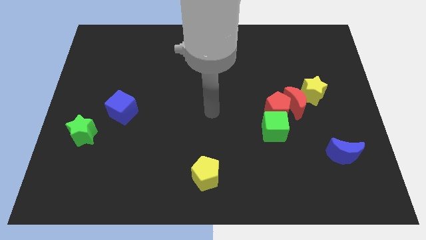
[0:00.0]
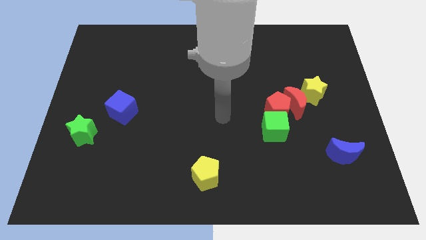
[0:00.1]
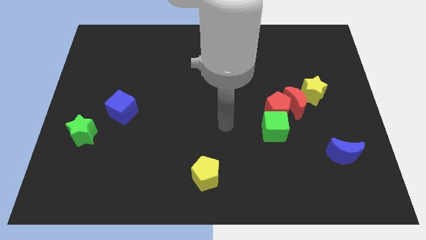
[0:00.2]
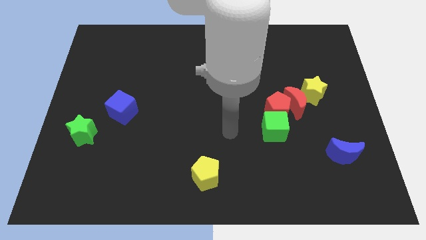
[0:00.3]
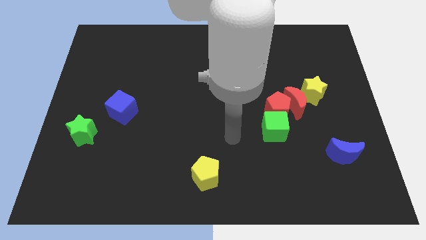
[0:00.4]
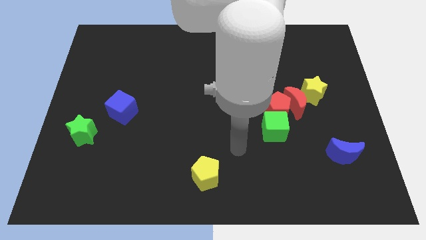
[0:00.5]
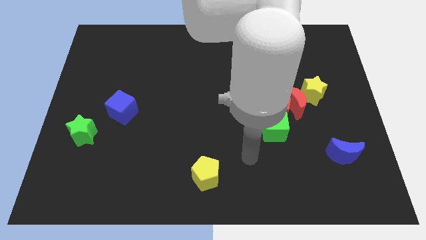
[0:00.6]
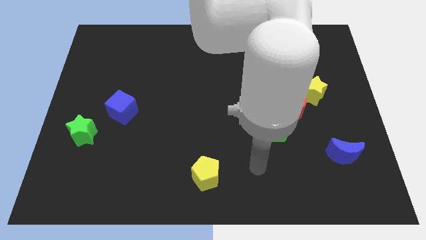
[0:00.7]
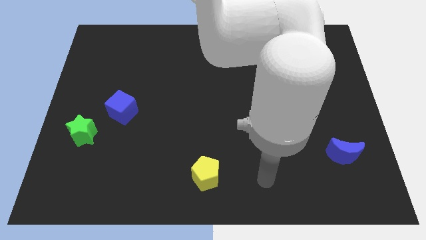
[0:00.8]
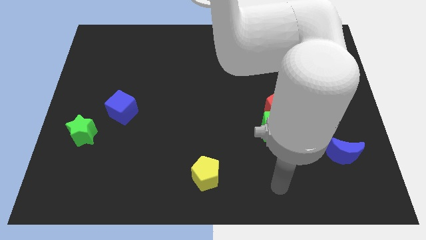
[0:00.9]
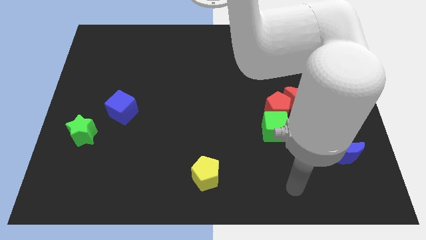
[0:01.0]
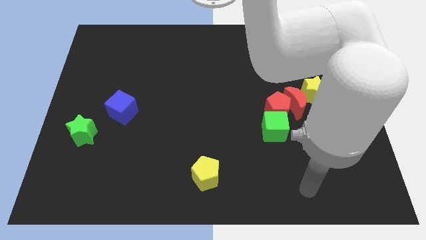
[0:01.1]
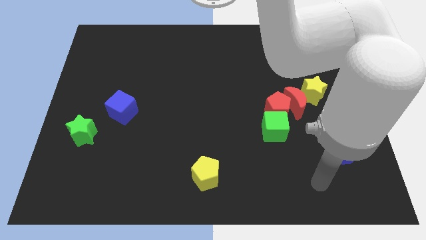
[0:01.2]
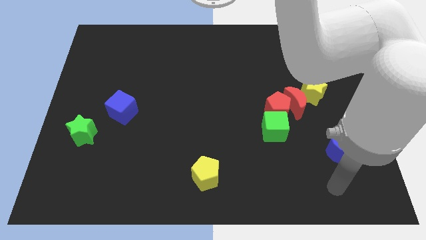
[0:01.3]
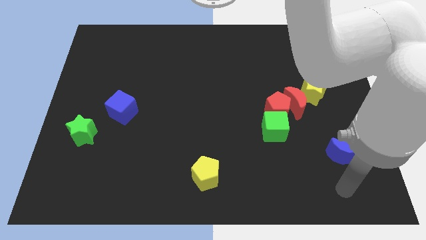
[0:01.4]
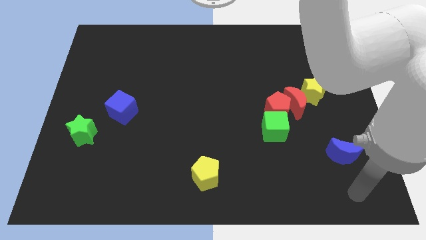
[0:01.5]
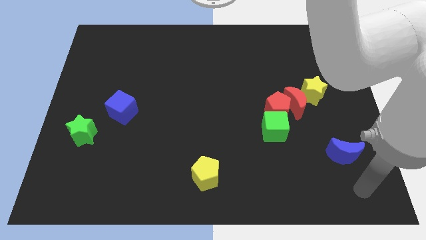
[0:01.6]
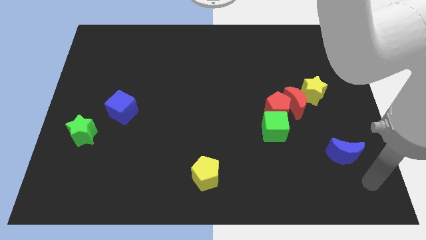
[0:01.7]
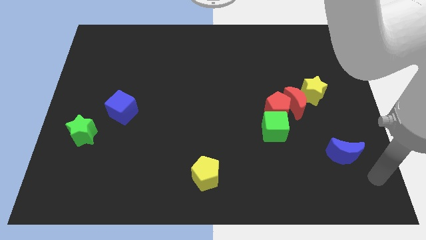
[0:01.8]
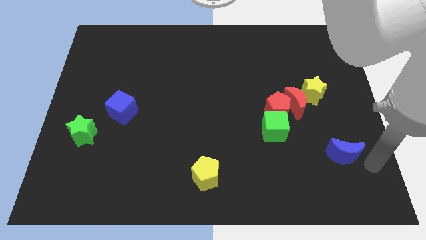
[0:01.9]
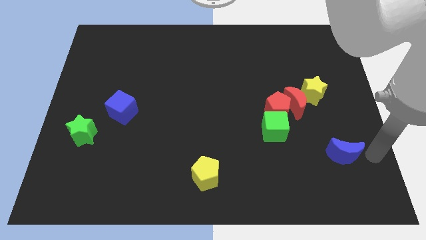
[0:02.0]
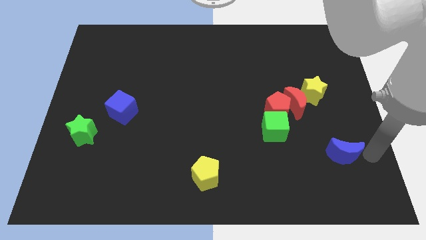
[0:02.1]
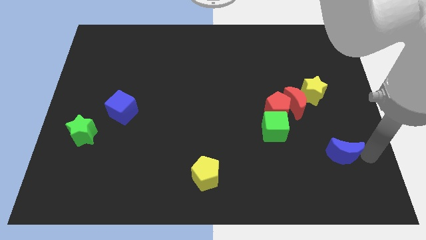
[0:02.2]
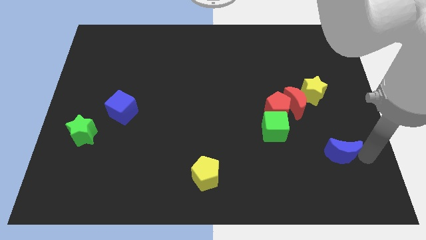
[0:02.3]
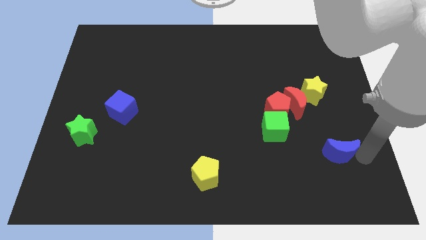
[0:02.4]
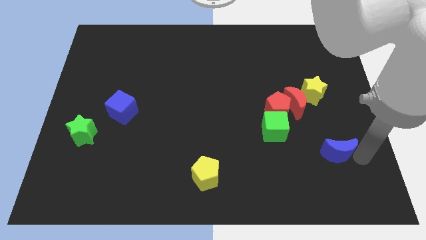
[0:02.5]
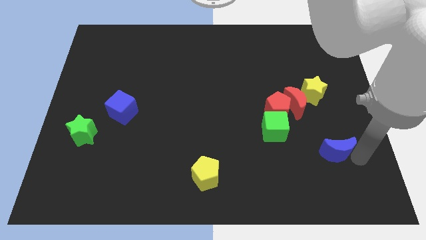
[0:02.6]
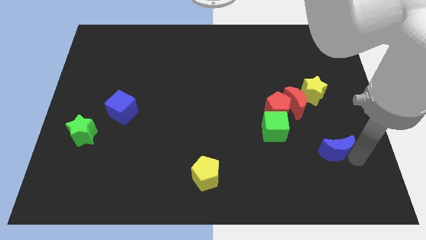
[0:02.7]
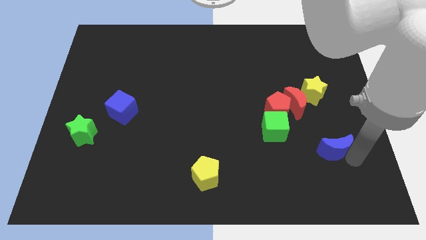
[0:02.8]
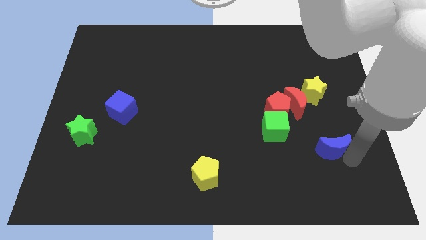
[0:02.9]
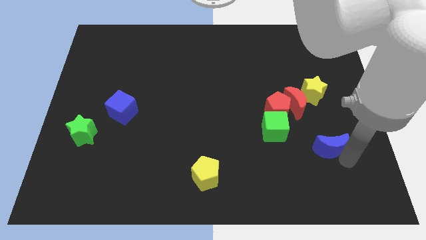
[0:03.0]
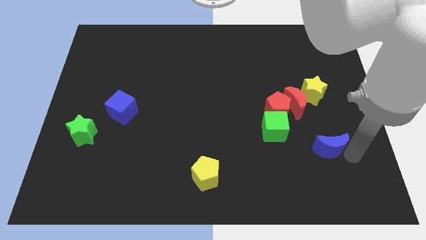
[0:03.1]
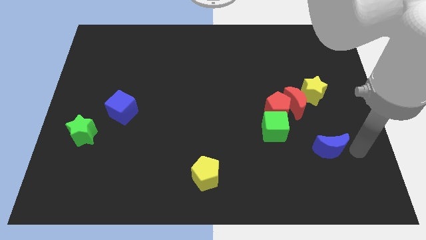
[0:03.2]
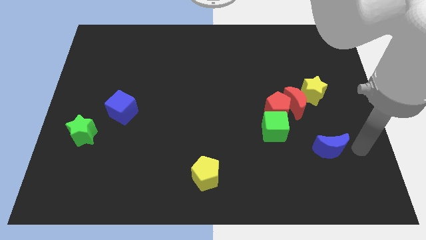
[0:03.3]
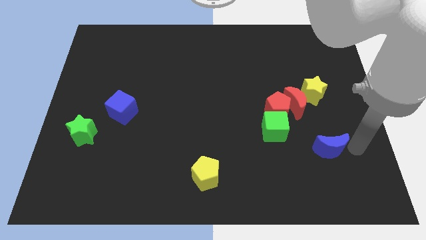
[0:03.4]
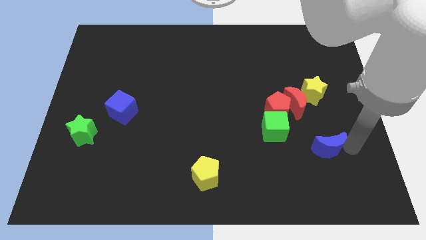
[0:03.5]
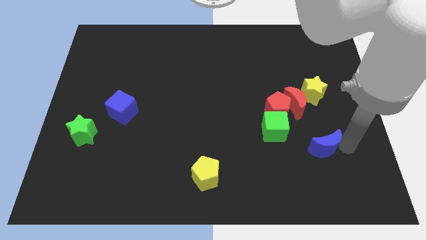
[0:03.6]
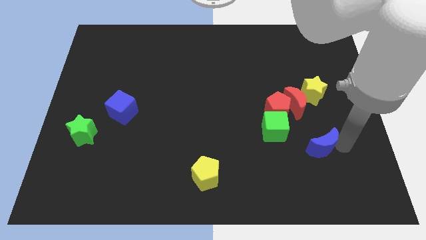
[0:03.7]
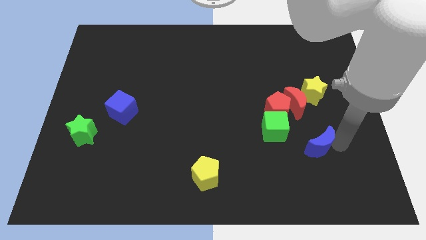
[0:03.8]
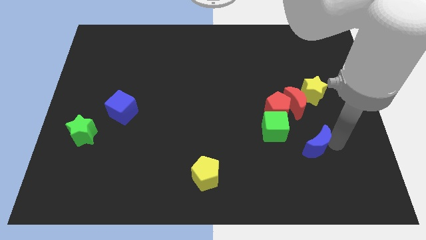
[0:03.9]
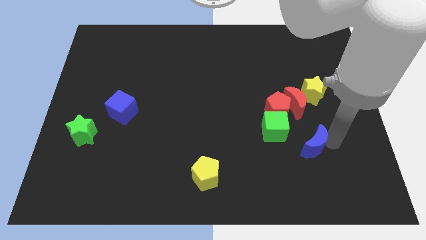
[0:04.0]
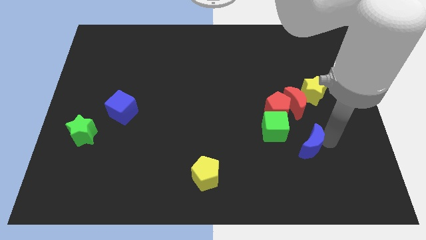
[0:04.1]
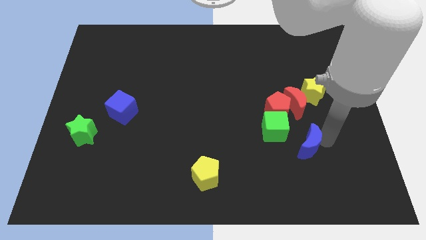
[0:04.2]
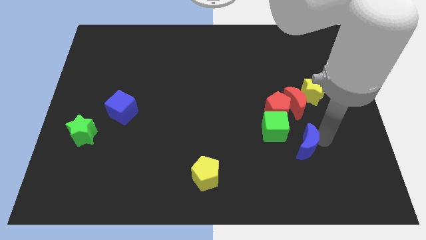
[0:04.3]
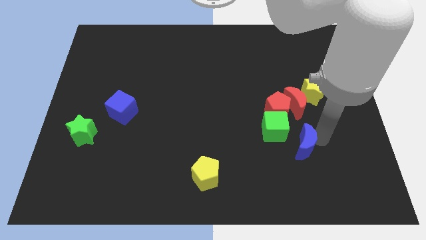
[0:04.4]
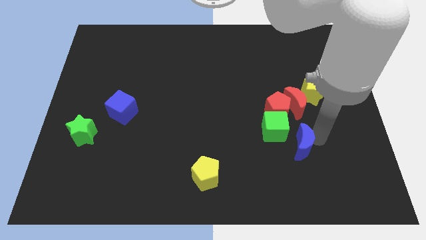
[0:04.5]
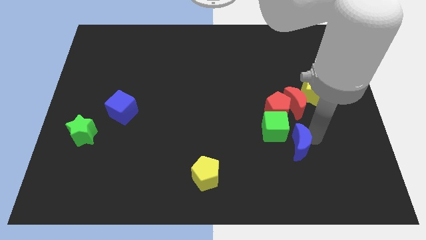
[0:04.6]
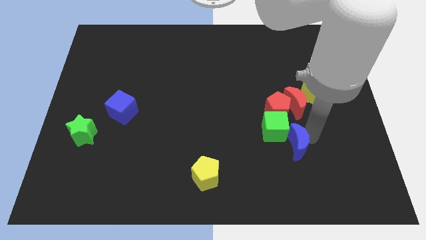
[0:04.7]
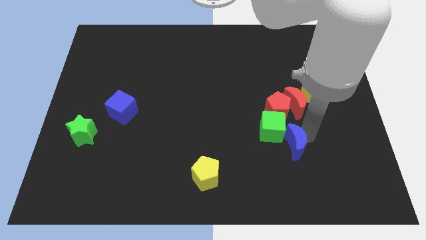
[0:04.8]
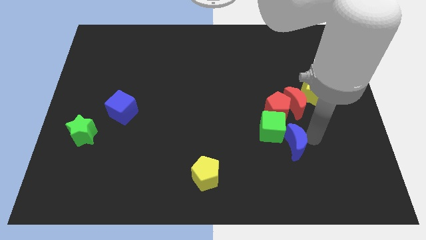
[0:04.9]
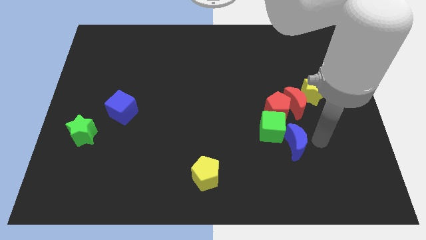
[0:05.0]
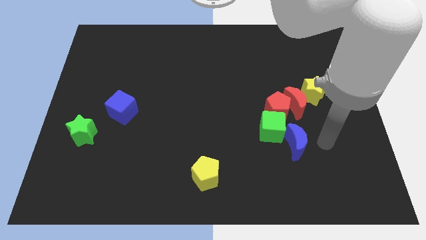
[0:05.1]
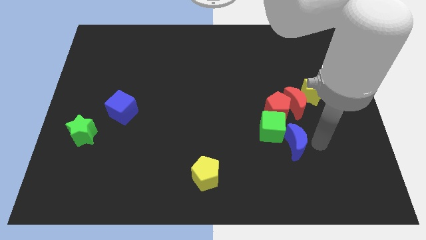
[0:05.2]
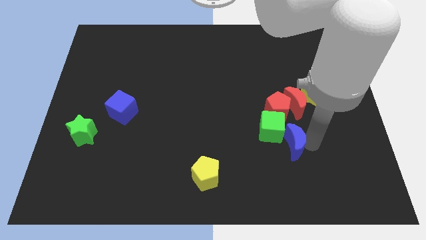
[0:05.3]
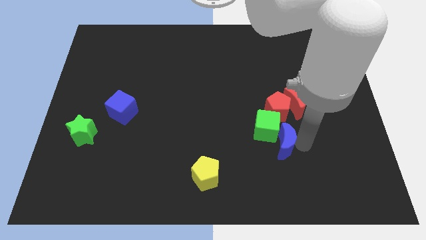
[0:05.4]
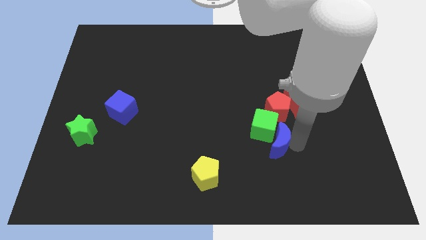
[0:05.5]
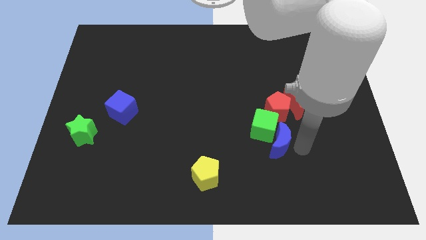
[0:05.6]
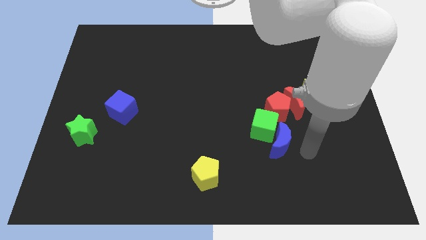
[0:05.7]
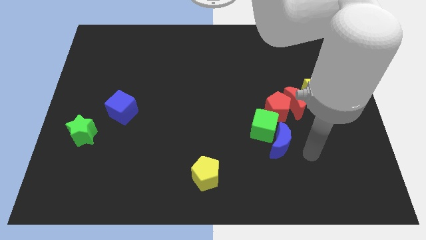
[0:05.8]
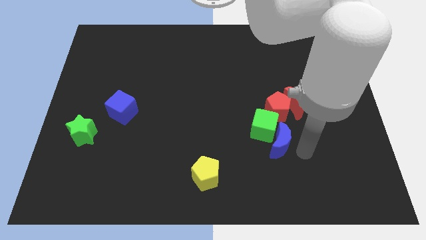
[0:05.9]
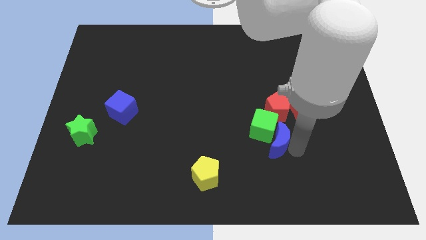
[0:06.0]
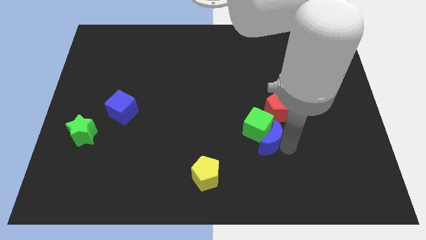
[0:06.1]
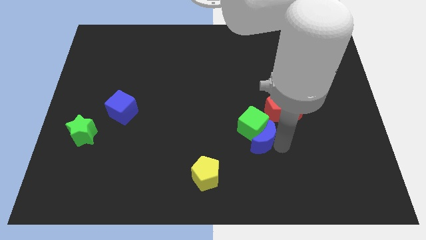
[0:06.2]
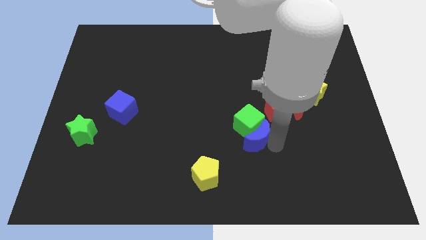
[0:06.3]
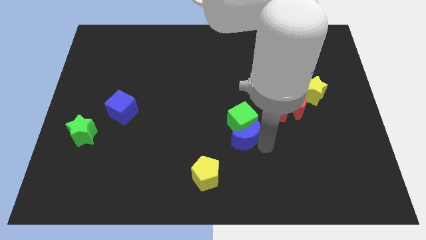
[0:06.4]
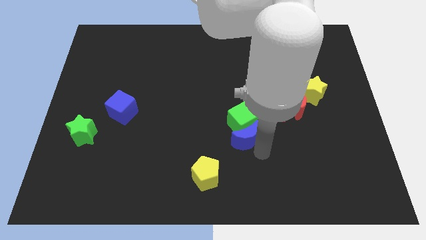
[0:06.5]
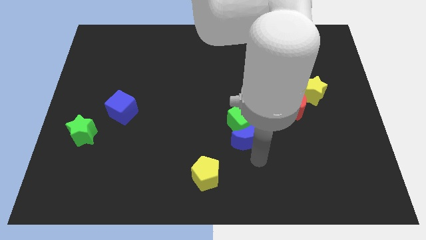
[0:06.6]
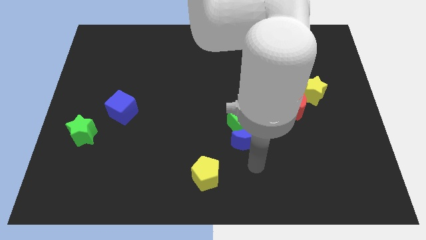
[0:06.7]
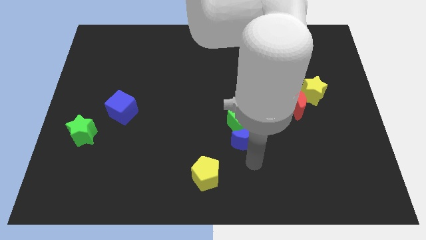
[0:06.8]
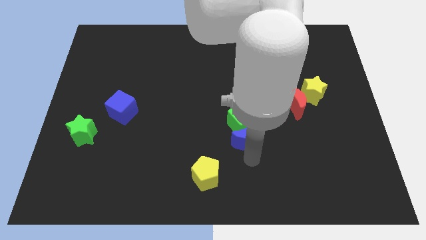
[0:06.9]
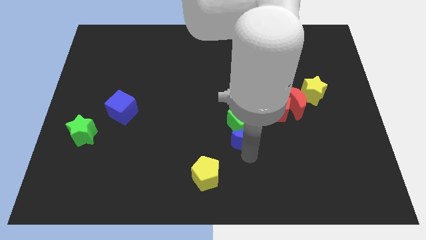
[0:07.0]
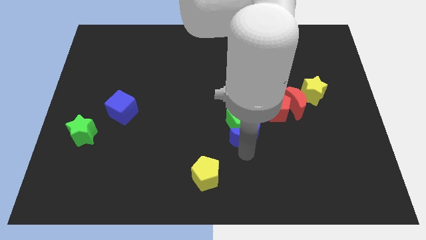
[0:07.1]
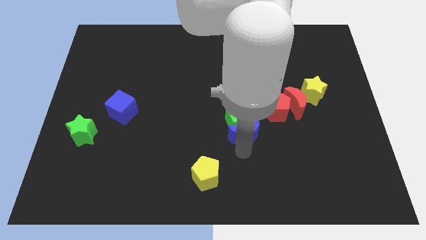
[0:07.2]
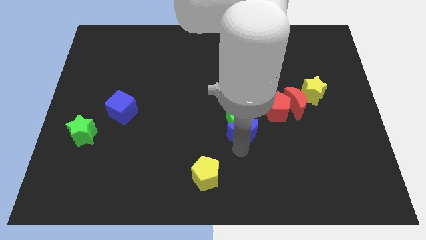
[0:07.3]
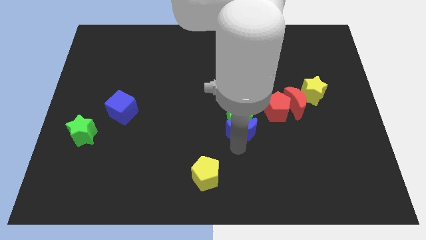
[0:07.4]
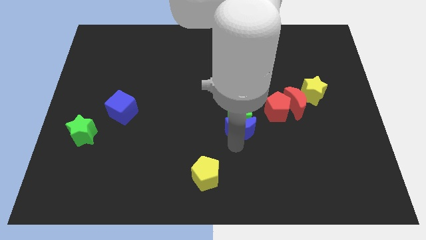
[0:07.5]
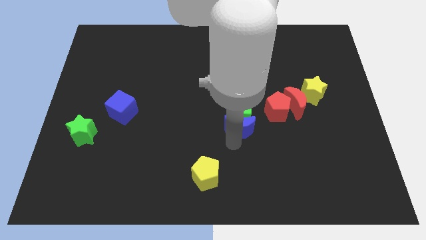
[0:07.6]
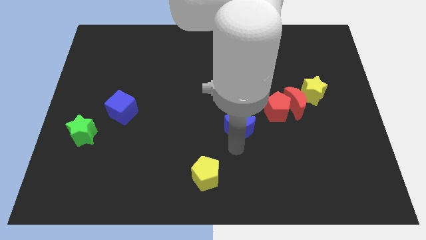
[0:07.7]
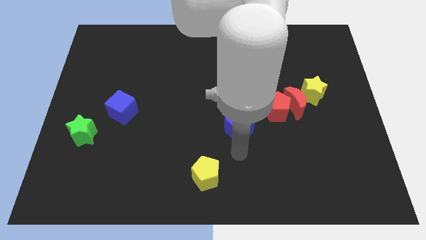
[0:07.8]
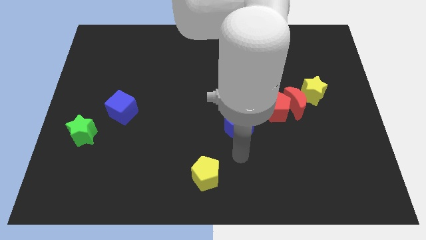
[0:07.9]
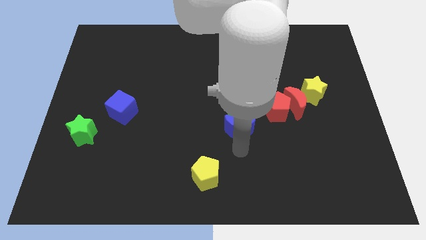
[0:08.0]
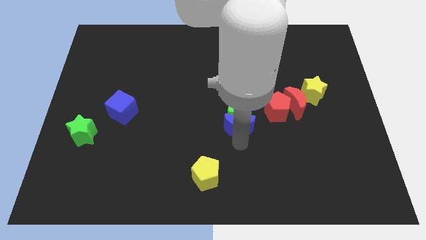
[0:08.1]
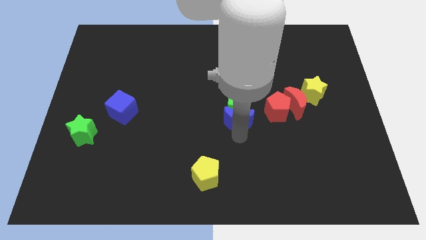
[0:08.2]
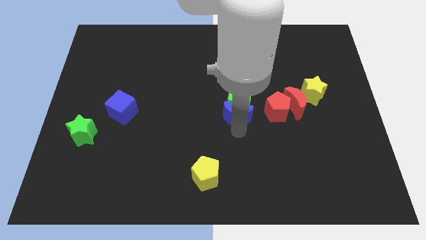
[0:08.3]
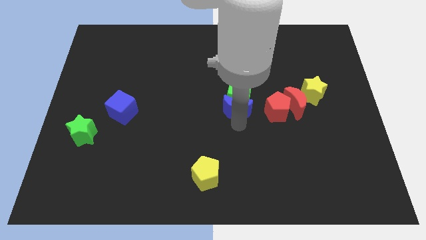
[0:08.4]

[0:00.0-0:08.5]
move the blue moon diagonally up and to the left
